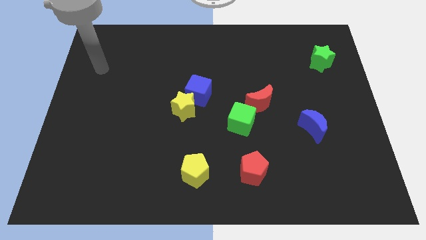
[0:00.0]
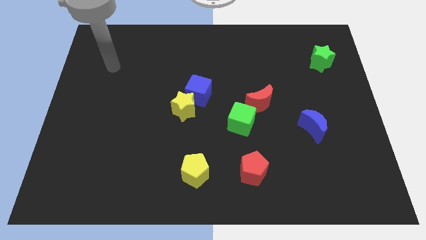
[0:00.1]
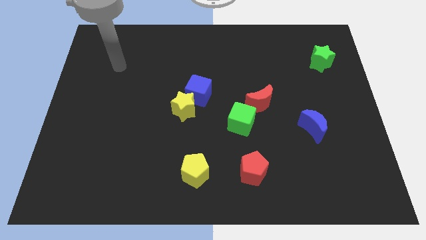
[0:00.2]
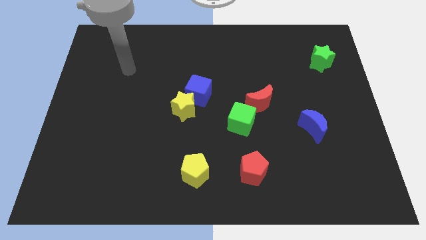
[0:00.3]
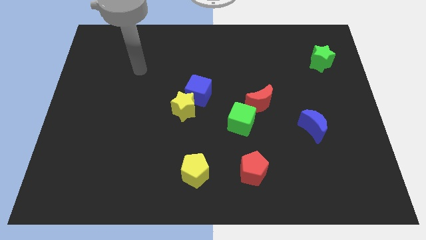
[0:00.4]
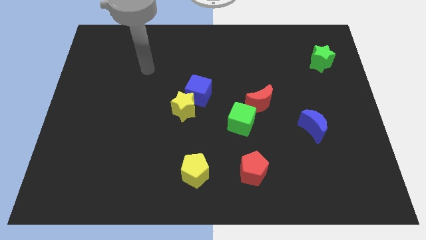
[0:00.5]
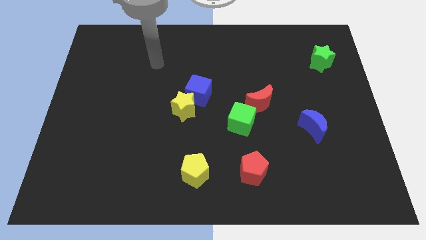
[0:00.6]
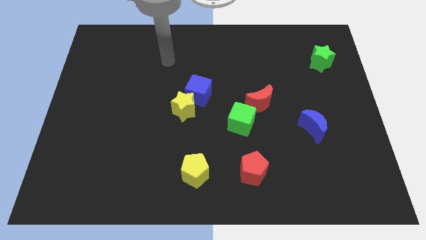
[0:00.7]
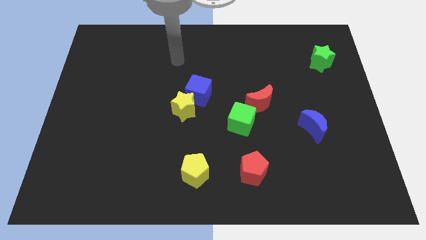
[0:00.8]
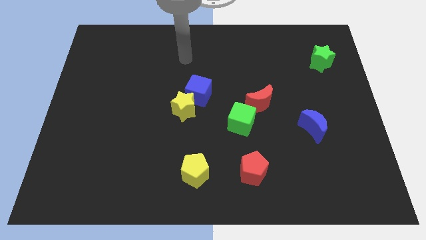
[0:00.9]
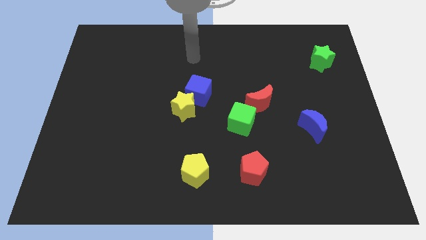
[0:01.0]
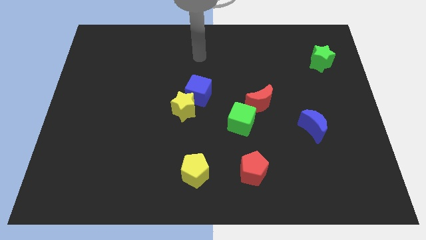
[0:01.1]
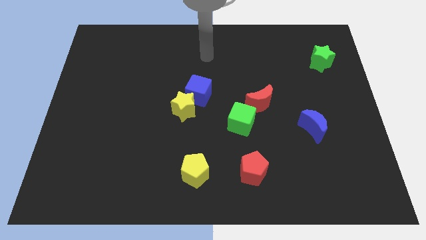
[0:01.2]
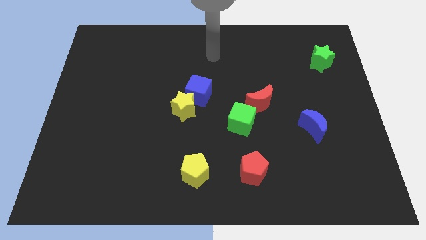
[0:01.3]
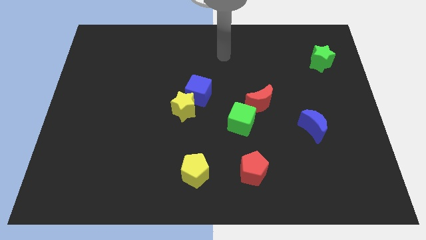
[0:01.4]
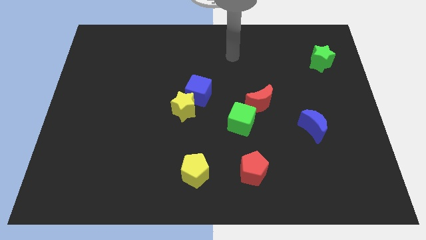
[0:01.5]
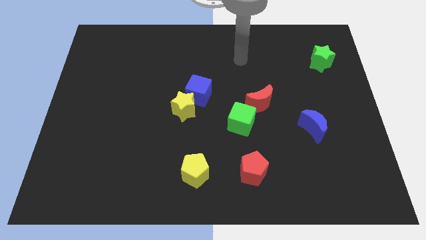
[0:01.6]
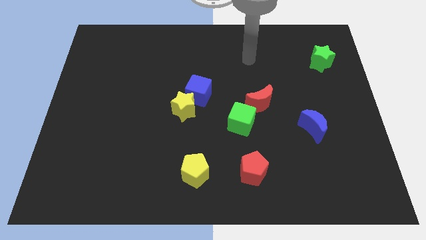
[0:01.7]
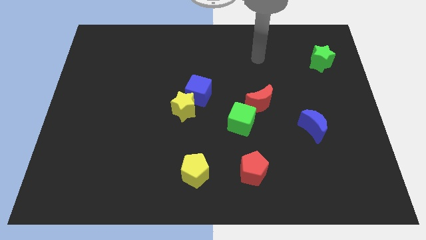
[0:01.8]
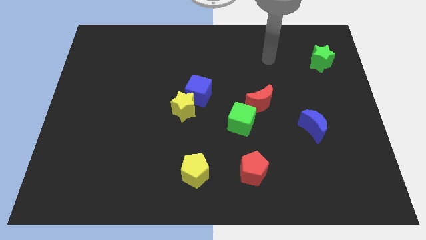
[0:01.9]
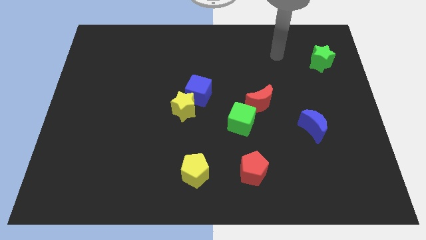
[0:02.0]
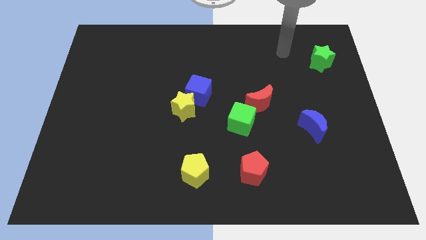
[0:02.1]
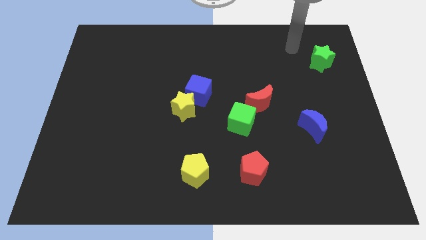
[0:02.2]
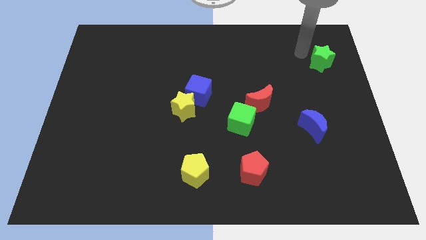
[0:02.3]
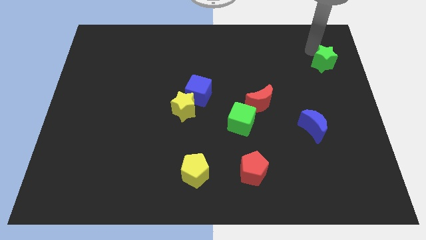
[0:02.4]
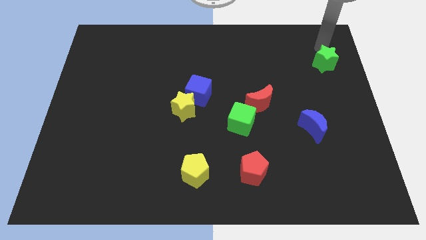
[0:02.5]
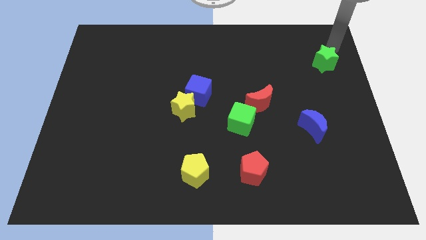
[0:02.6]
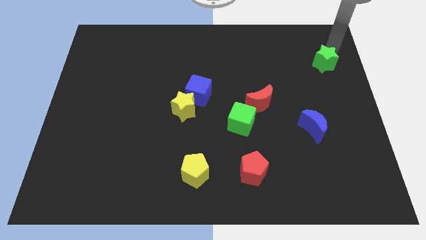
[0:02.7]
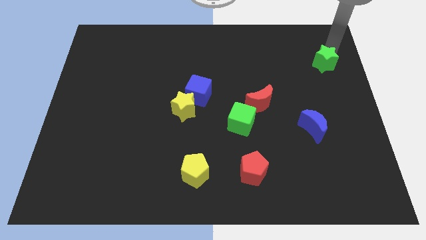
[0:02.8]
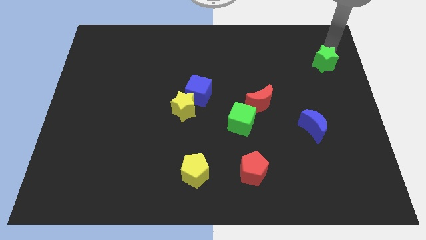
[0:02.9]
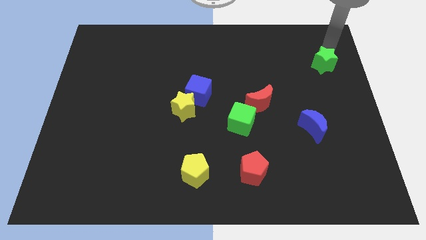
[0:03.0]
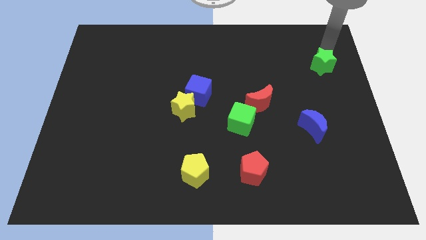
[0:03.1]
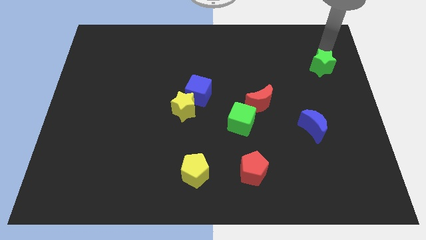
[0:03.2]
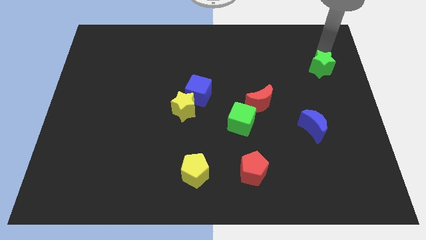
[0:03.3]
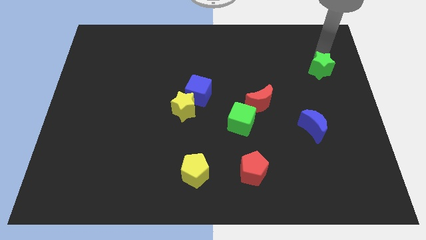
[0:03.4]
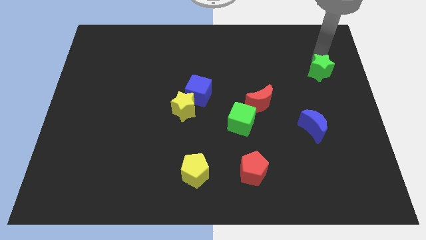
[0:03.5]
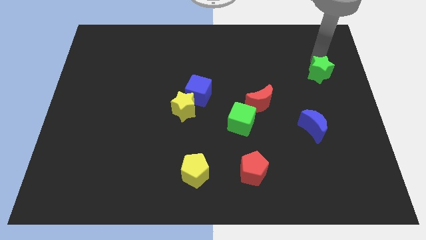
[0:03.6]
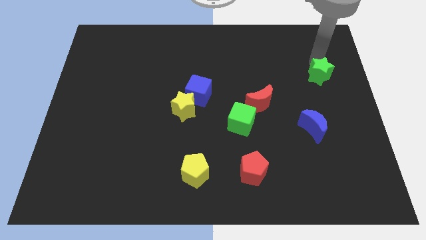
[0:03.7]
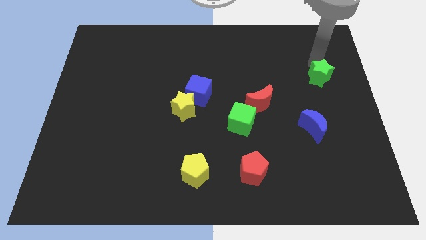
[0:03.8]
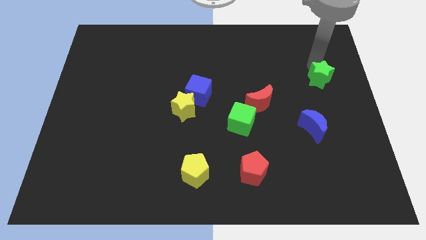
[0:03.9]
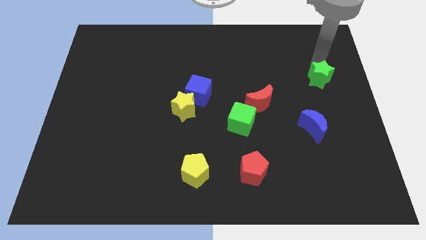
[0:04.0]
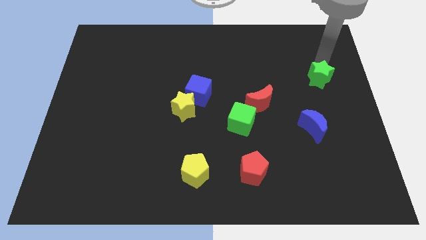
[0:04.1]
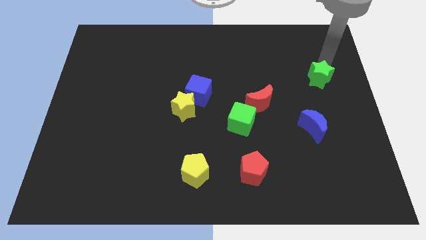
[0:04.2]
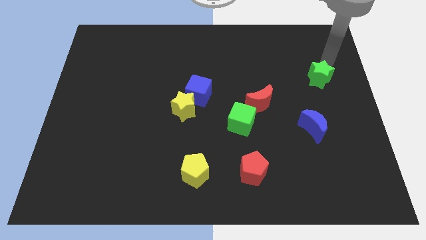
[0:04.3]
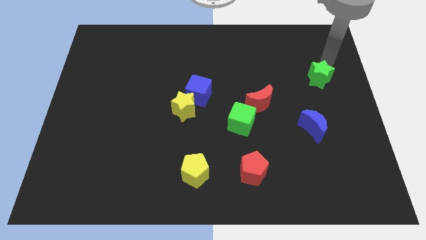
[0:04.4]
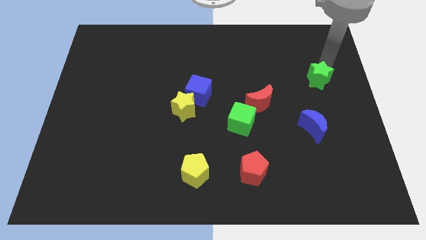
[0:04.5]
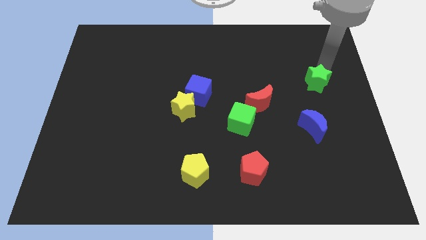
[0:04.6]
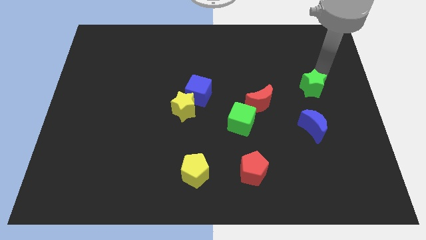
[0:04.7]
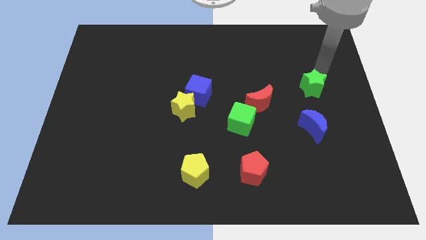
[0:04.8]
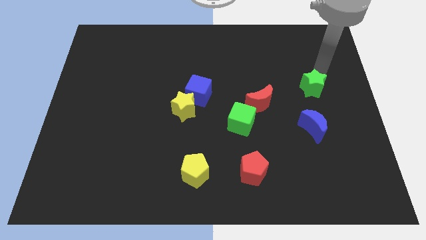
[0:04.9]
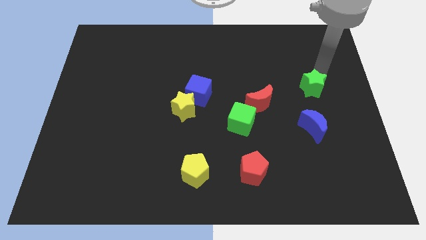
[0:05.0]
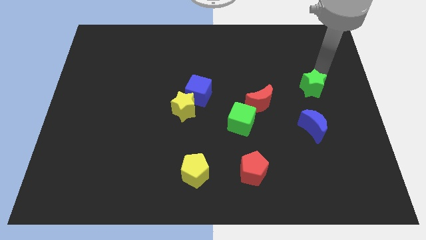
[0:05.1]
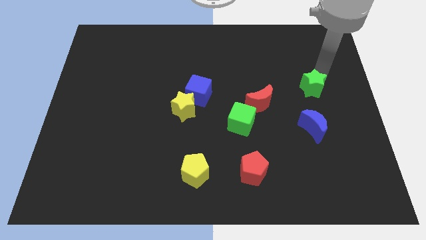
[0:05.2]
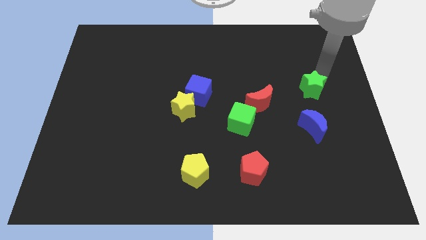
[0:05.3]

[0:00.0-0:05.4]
slide the green star right of the red moon

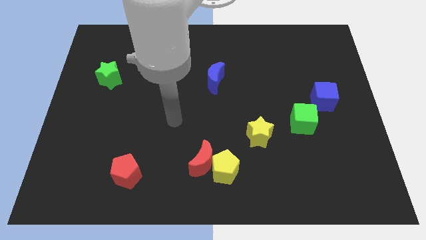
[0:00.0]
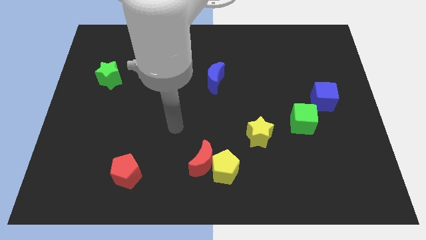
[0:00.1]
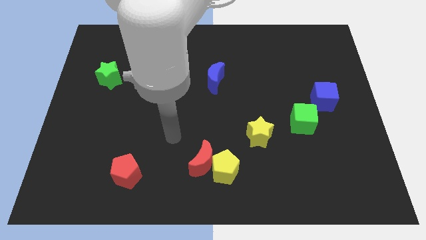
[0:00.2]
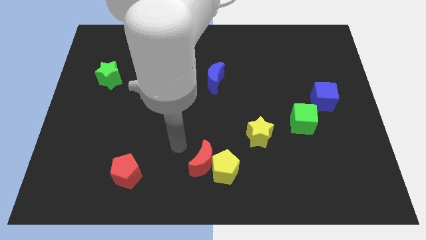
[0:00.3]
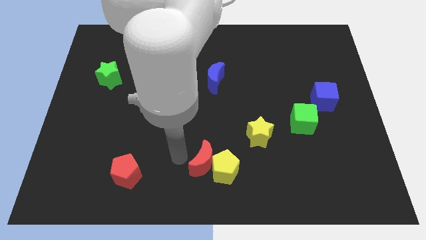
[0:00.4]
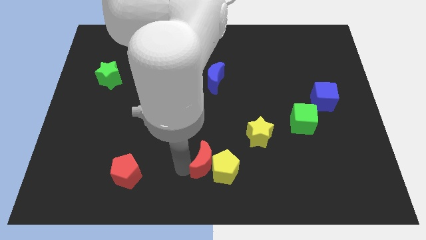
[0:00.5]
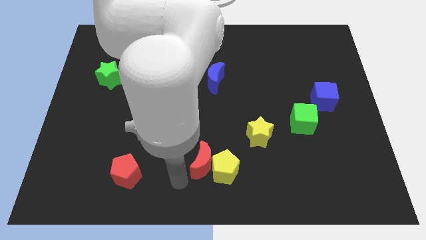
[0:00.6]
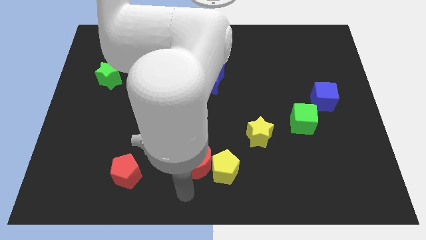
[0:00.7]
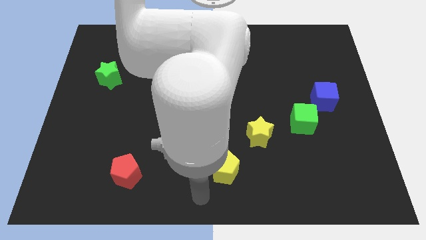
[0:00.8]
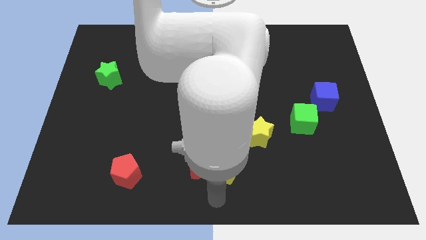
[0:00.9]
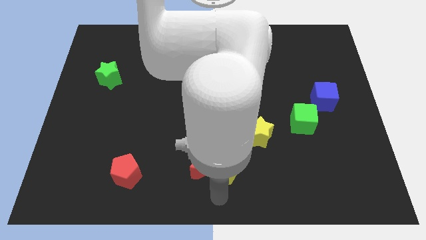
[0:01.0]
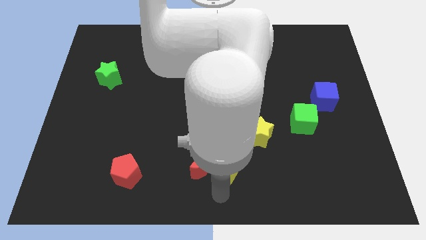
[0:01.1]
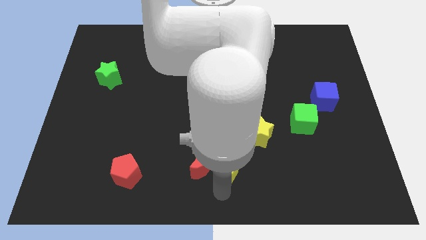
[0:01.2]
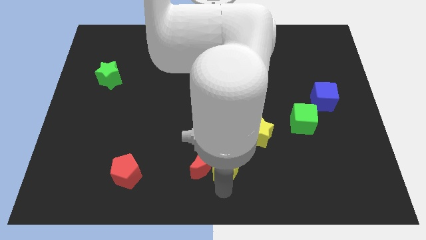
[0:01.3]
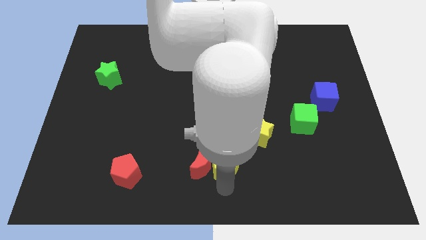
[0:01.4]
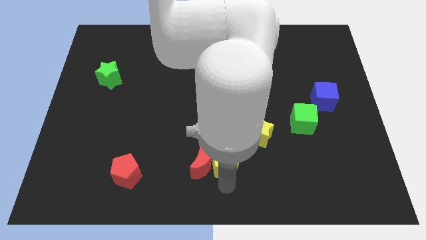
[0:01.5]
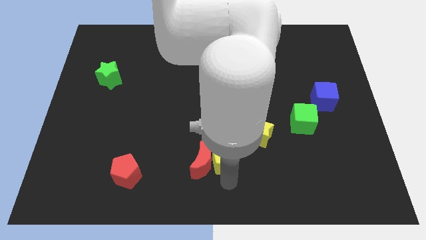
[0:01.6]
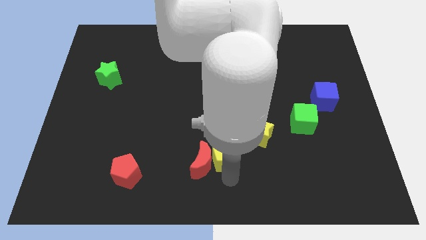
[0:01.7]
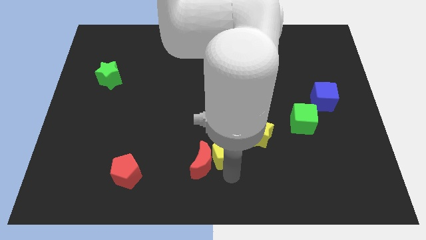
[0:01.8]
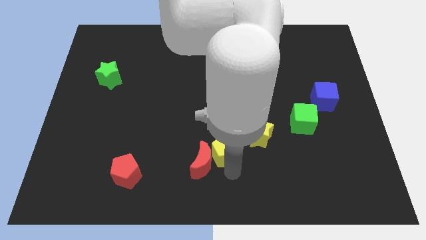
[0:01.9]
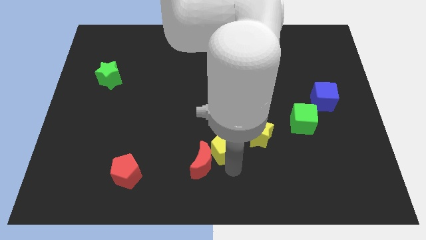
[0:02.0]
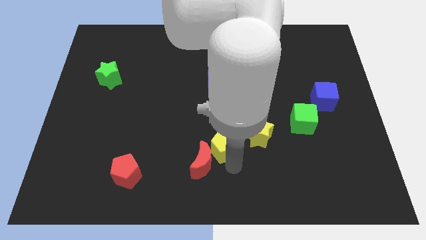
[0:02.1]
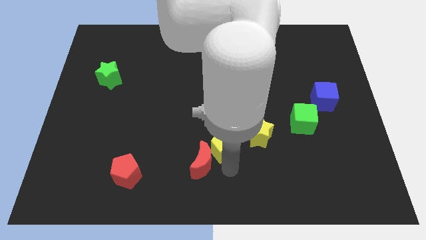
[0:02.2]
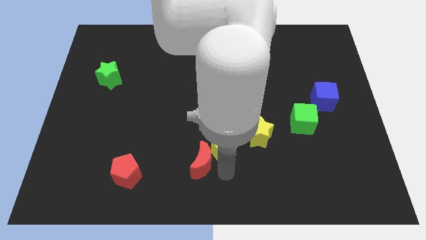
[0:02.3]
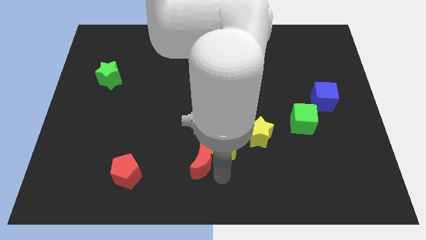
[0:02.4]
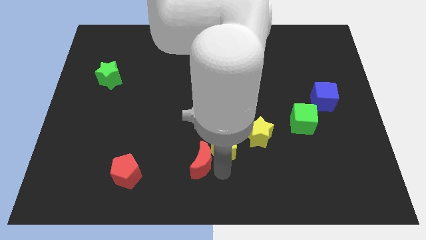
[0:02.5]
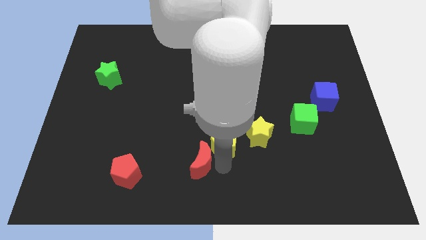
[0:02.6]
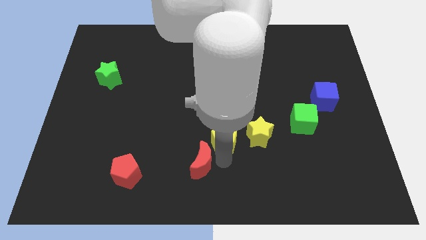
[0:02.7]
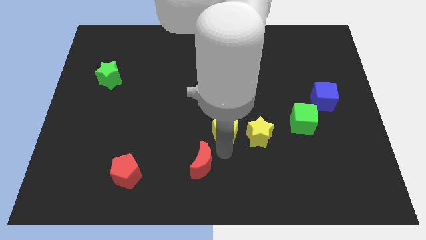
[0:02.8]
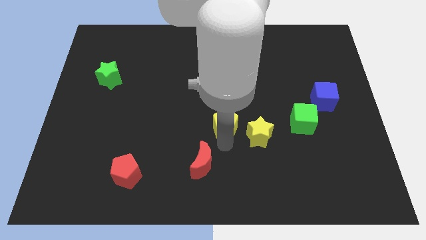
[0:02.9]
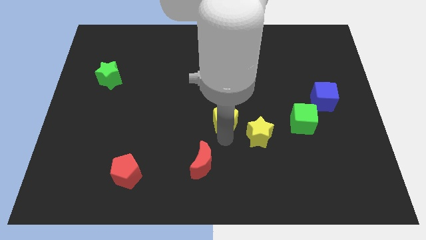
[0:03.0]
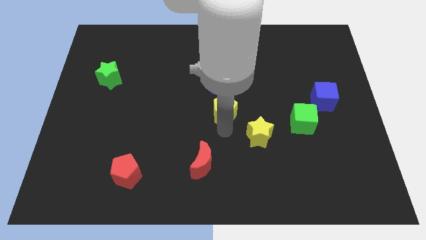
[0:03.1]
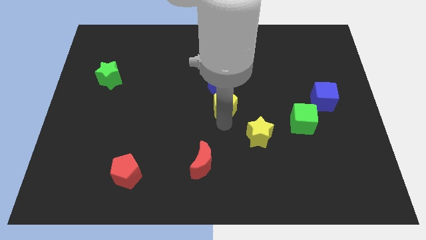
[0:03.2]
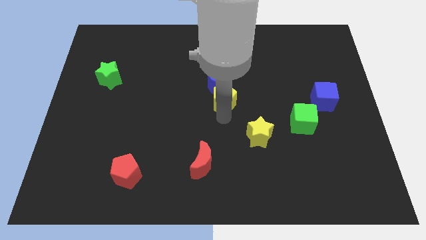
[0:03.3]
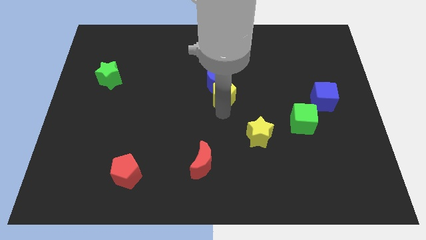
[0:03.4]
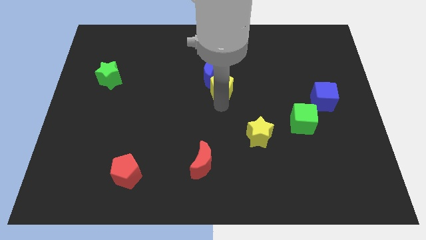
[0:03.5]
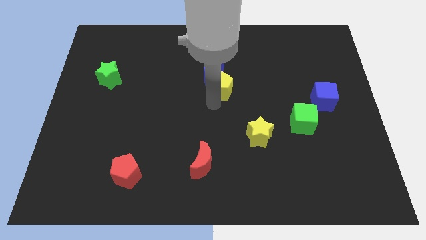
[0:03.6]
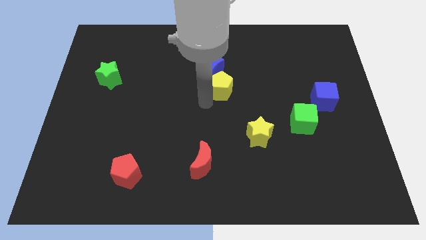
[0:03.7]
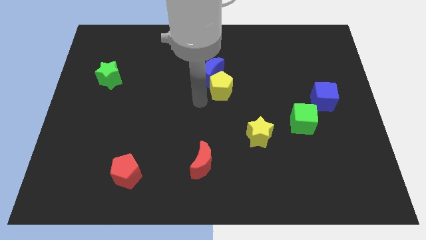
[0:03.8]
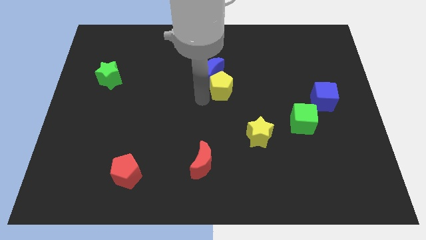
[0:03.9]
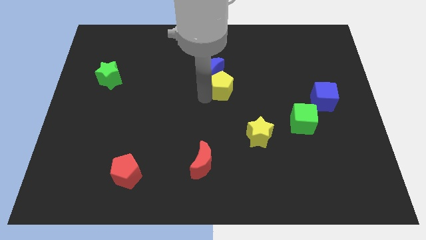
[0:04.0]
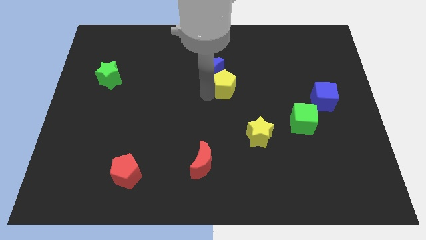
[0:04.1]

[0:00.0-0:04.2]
push the yellow pentagon to the right side of the blue moon
